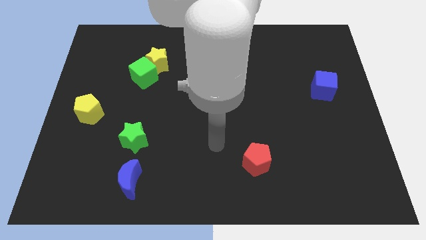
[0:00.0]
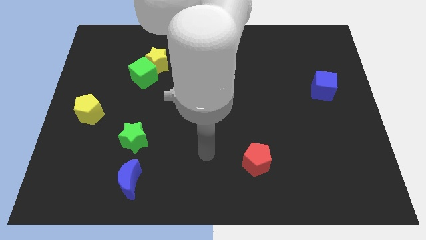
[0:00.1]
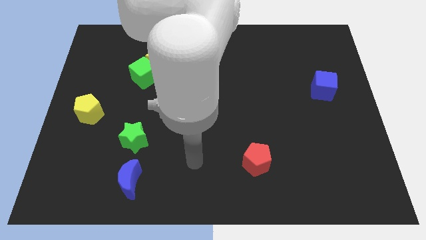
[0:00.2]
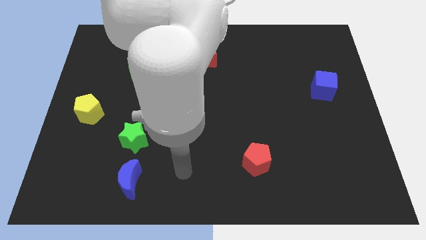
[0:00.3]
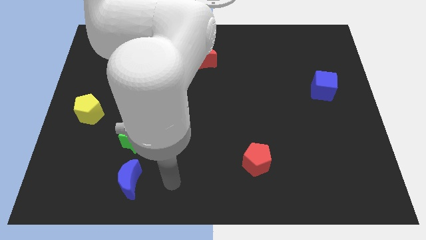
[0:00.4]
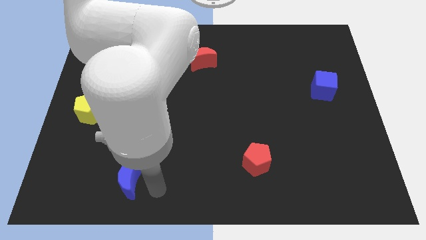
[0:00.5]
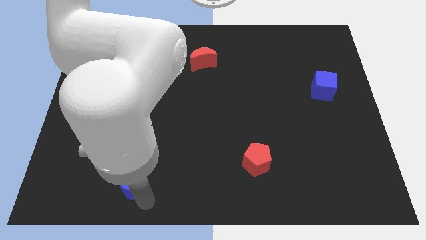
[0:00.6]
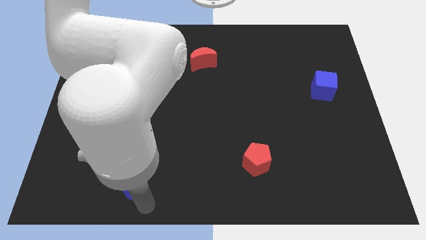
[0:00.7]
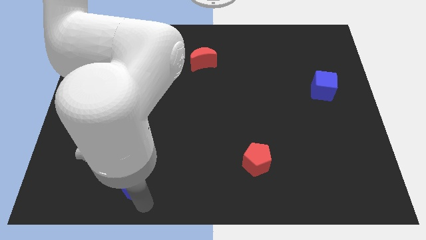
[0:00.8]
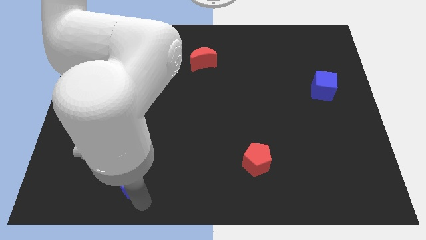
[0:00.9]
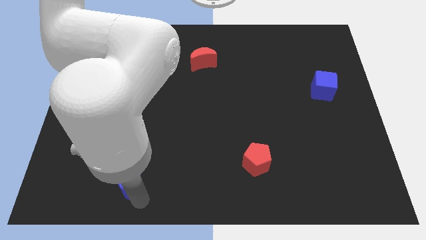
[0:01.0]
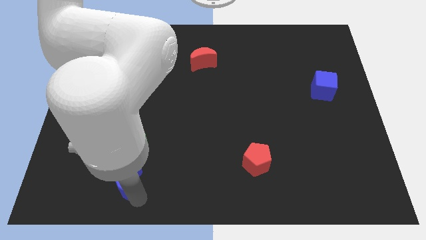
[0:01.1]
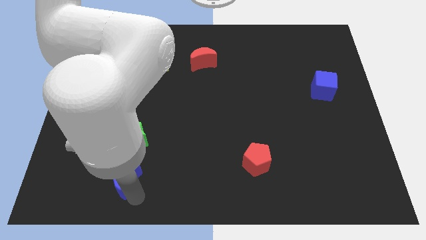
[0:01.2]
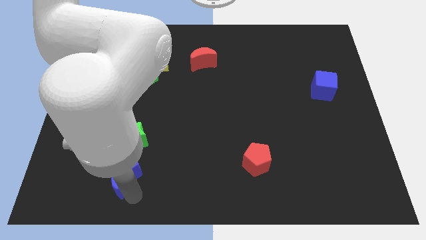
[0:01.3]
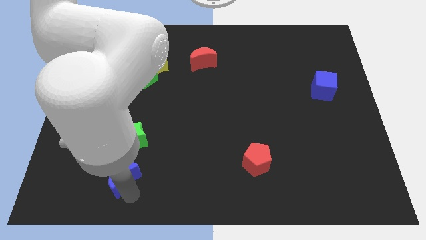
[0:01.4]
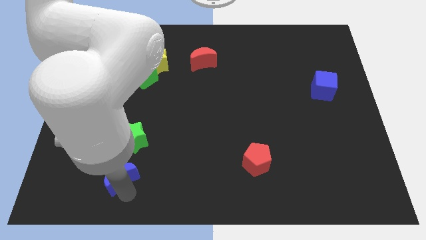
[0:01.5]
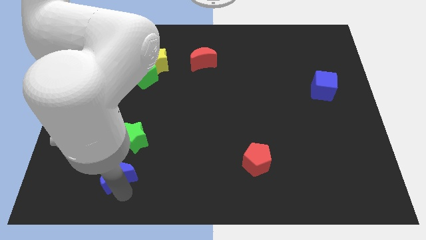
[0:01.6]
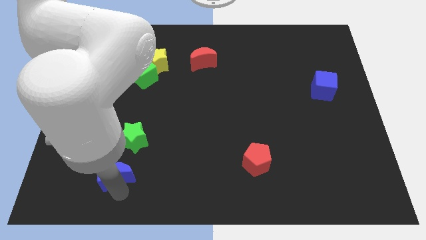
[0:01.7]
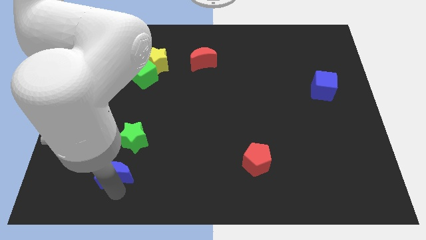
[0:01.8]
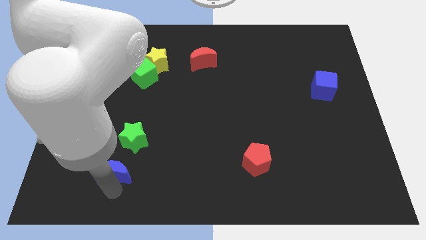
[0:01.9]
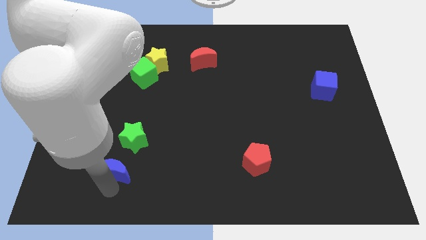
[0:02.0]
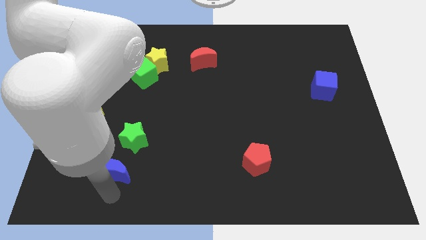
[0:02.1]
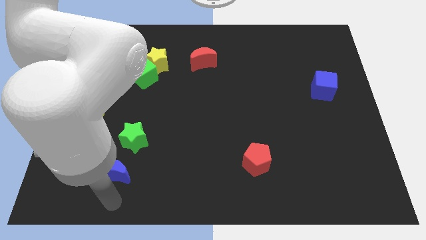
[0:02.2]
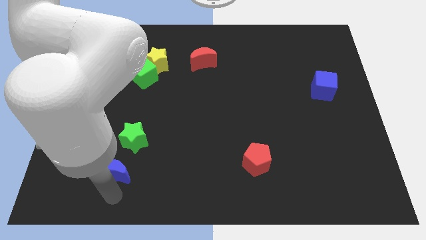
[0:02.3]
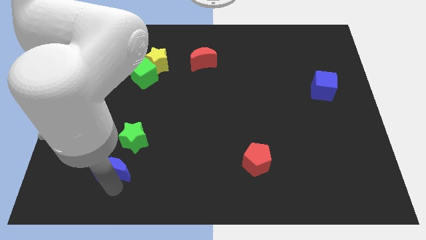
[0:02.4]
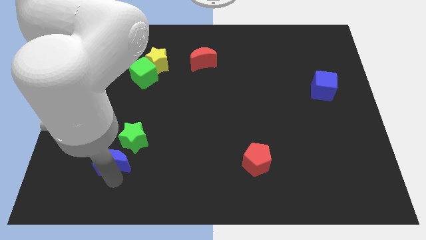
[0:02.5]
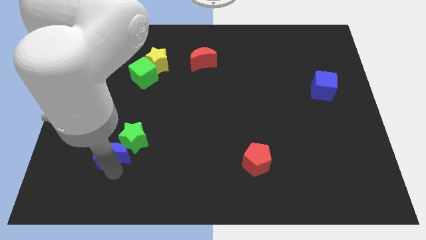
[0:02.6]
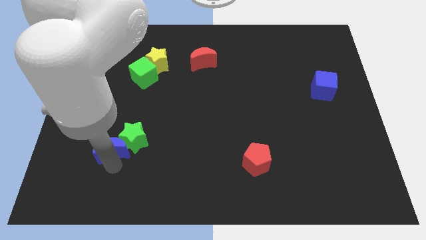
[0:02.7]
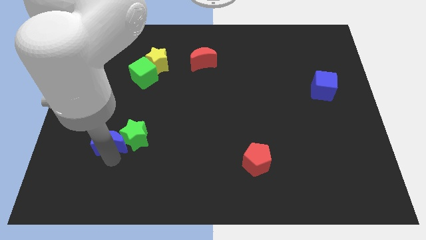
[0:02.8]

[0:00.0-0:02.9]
slide the blue moon slightly up

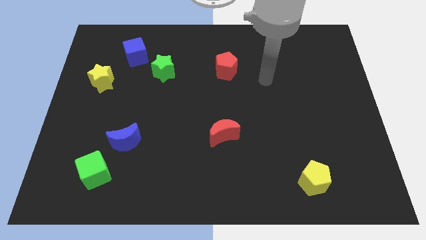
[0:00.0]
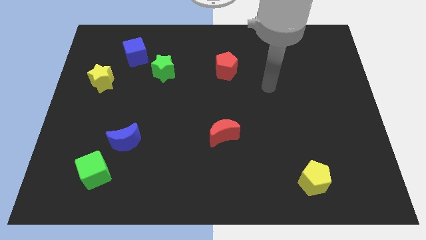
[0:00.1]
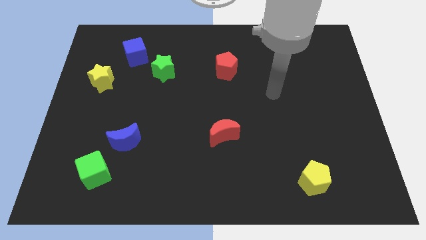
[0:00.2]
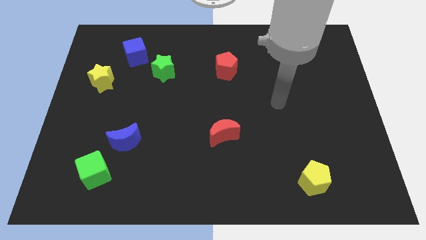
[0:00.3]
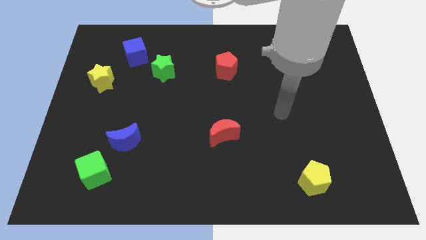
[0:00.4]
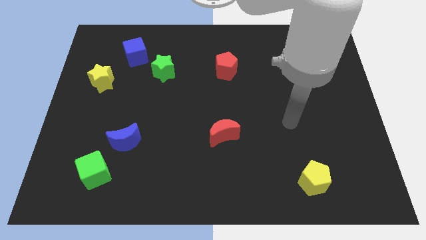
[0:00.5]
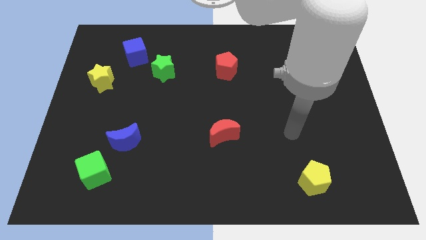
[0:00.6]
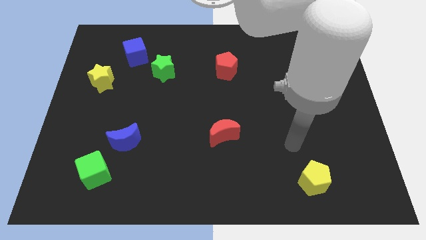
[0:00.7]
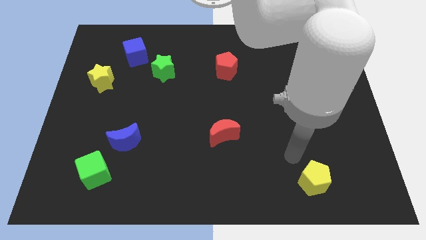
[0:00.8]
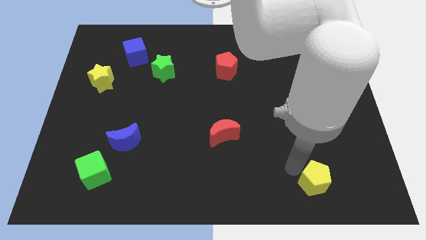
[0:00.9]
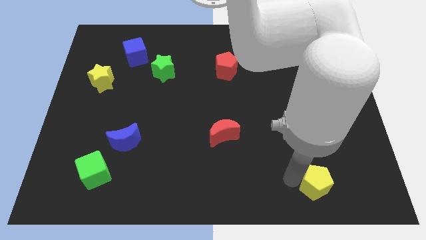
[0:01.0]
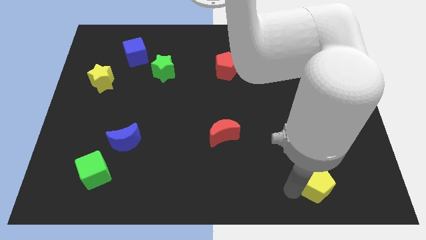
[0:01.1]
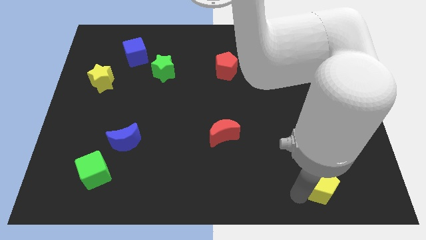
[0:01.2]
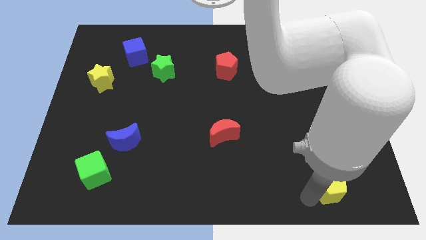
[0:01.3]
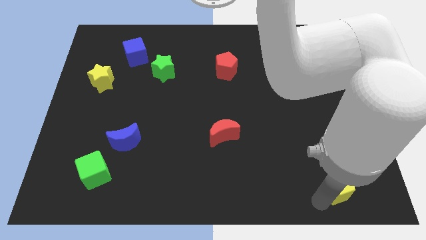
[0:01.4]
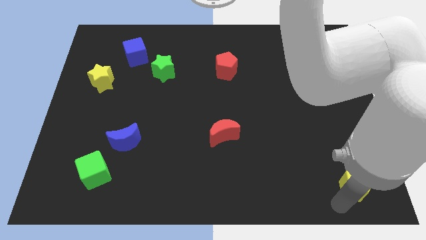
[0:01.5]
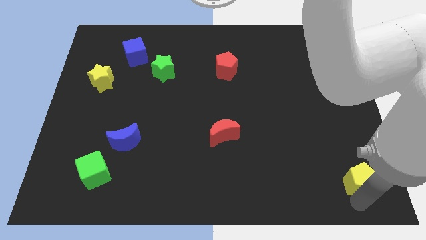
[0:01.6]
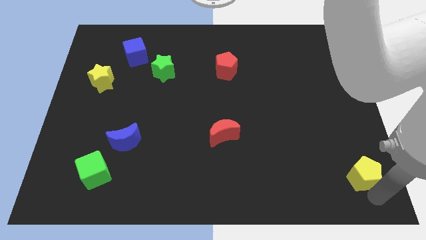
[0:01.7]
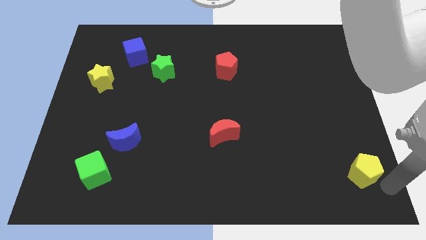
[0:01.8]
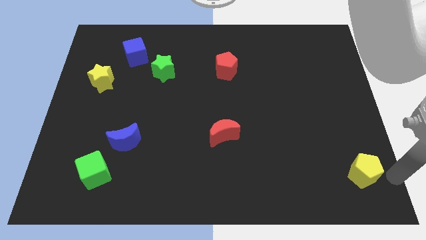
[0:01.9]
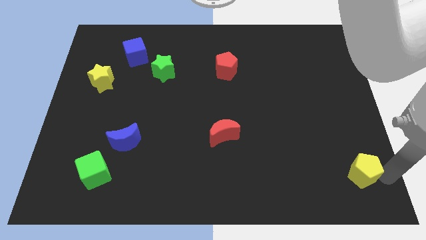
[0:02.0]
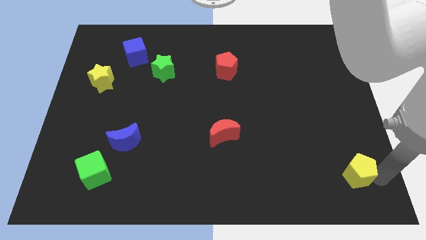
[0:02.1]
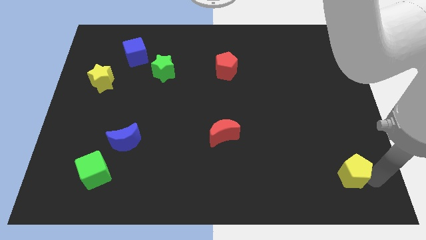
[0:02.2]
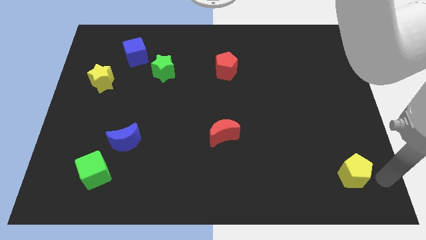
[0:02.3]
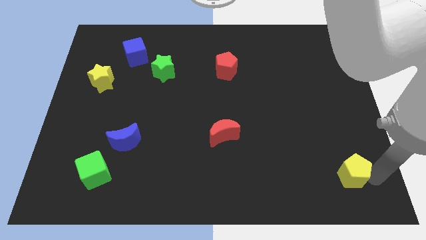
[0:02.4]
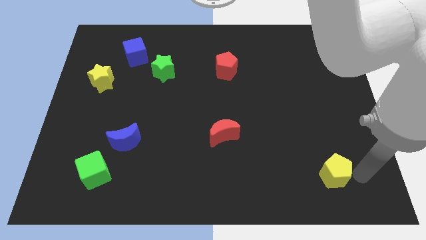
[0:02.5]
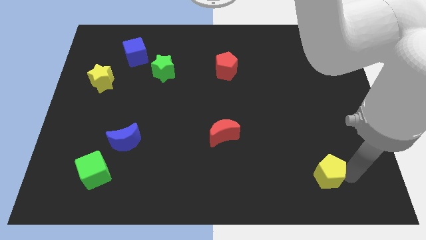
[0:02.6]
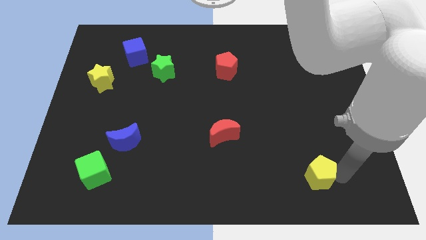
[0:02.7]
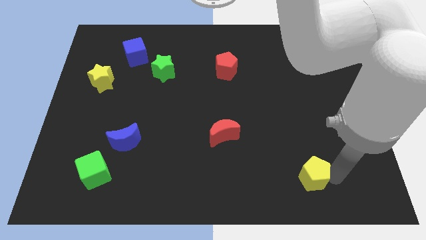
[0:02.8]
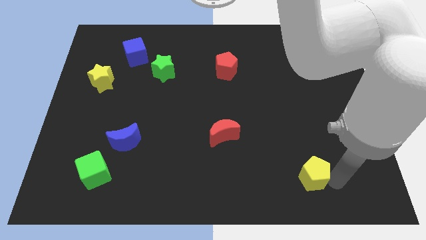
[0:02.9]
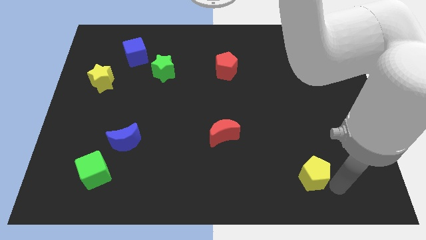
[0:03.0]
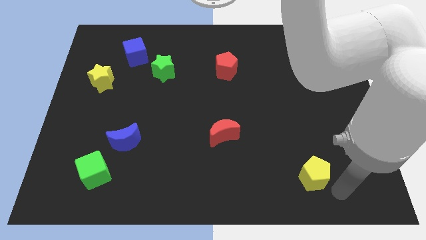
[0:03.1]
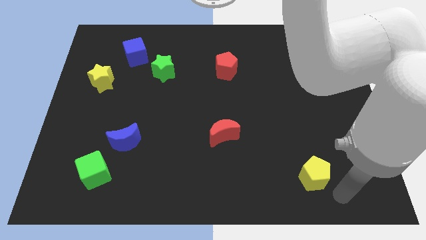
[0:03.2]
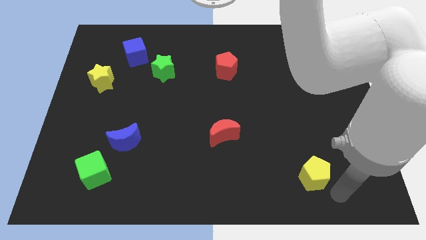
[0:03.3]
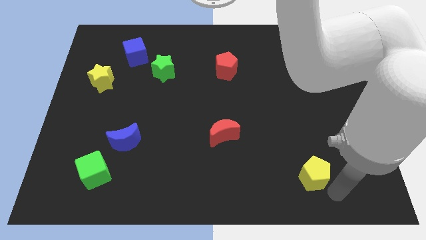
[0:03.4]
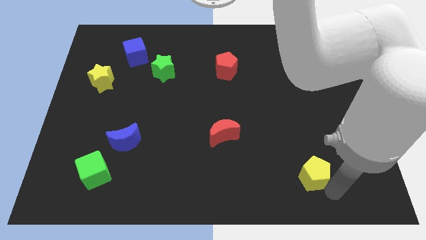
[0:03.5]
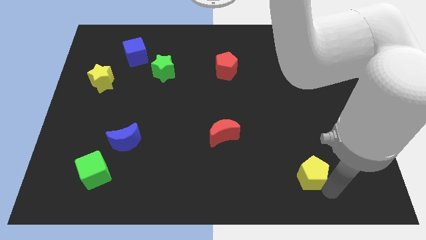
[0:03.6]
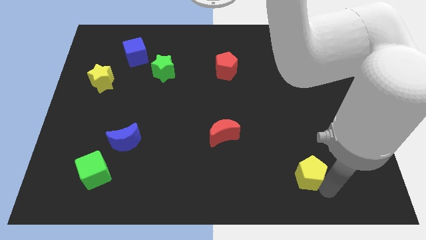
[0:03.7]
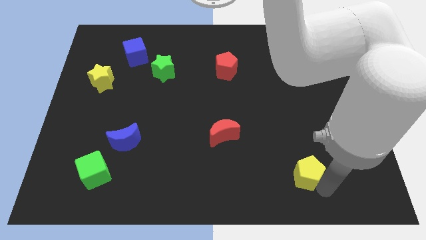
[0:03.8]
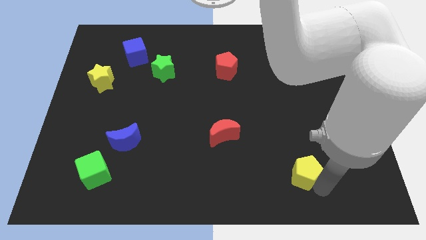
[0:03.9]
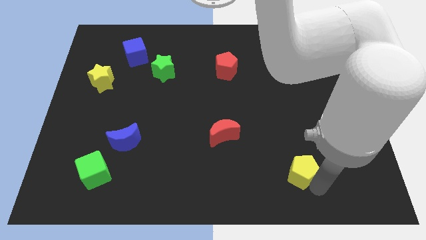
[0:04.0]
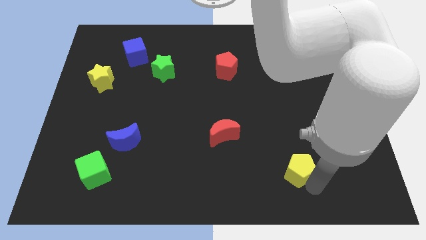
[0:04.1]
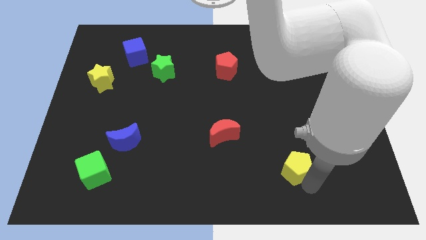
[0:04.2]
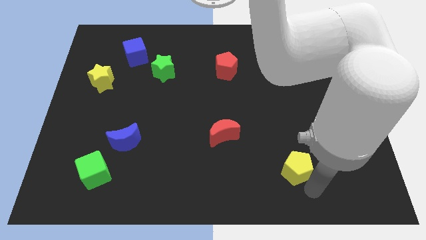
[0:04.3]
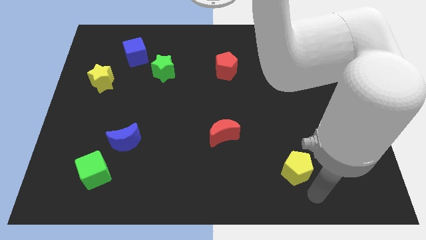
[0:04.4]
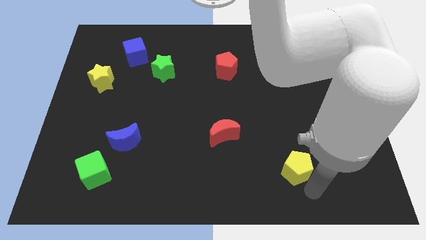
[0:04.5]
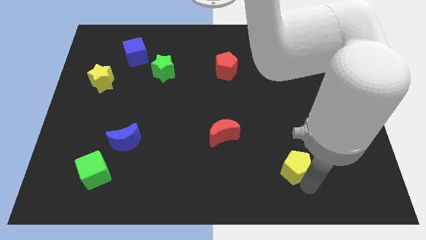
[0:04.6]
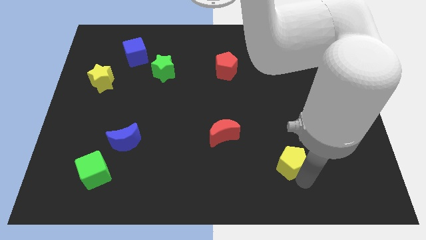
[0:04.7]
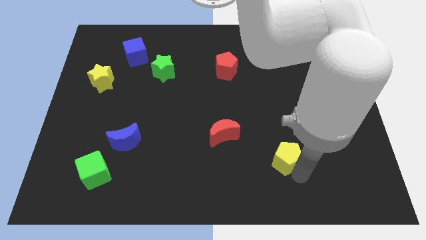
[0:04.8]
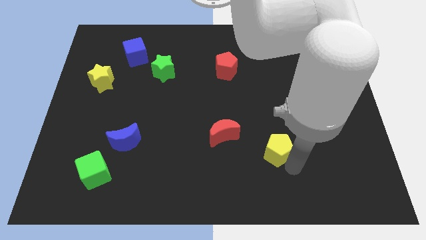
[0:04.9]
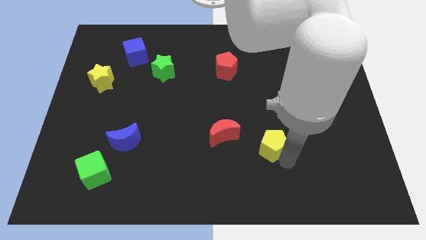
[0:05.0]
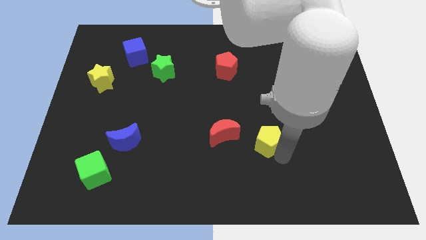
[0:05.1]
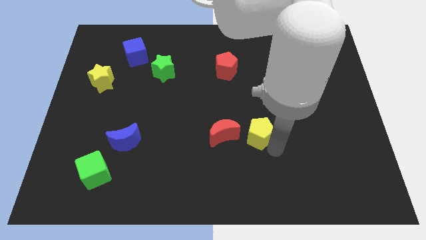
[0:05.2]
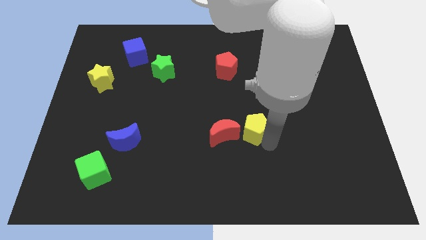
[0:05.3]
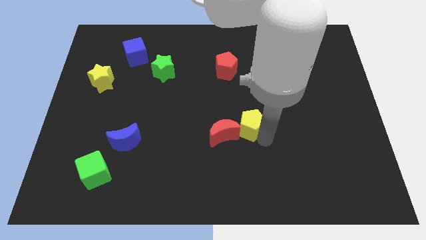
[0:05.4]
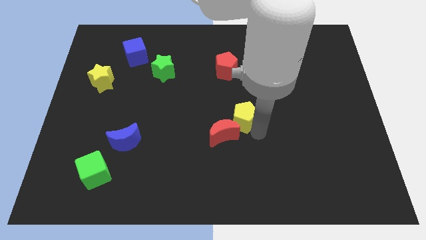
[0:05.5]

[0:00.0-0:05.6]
slide the yellow pentagon up and then left
